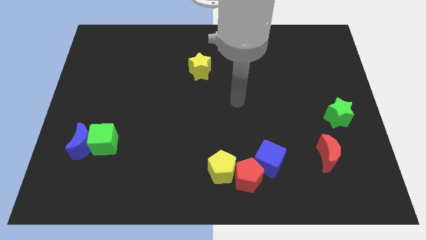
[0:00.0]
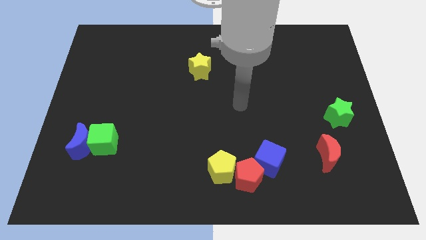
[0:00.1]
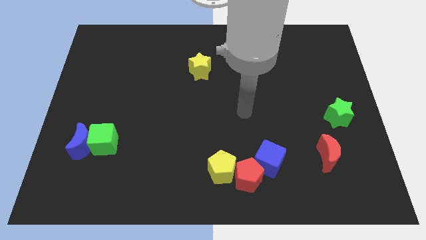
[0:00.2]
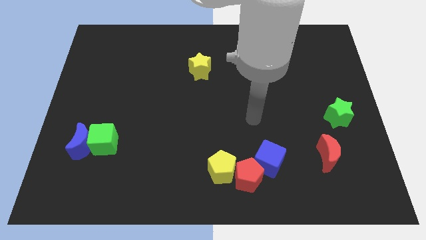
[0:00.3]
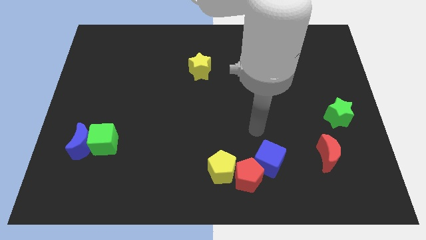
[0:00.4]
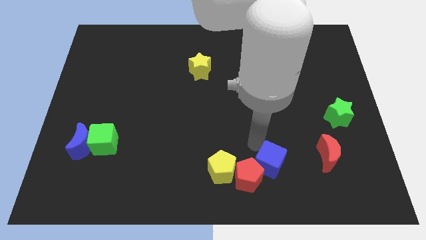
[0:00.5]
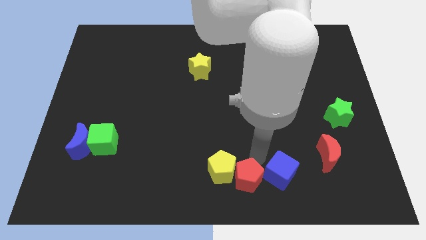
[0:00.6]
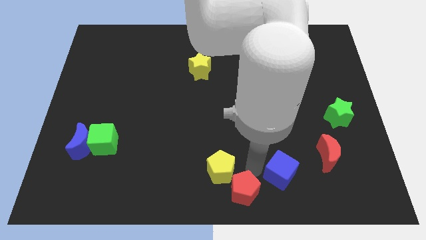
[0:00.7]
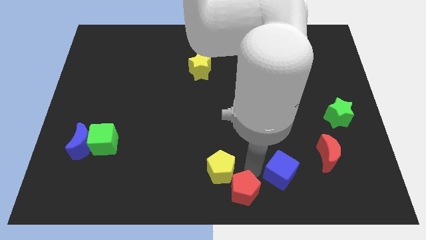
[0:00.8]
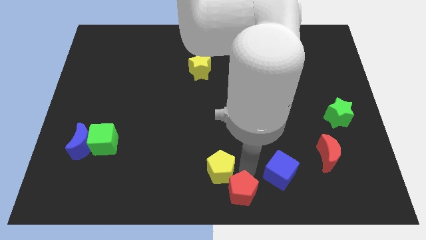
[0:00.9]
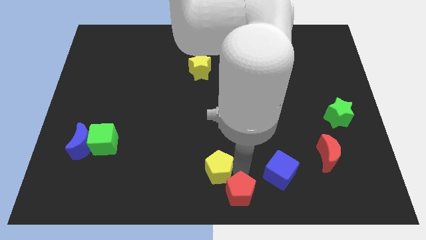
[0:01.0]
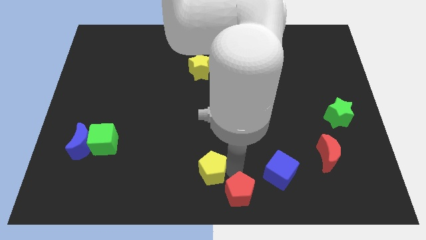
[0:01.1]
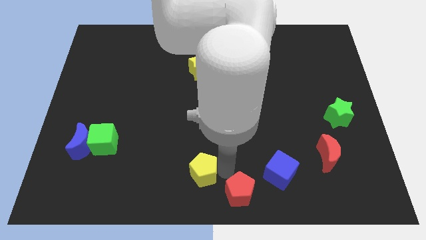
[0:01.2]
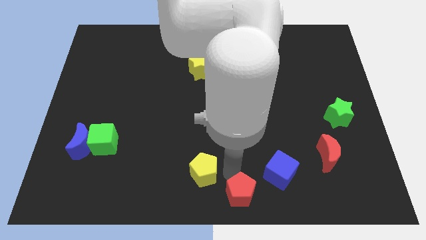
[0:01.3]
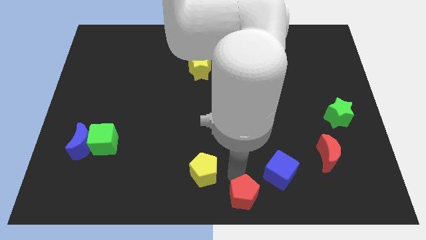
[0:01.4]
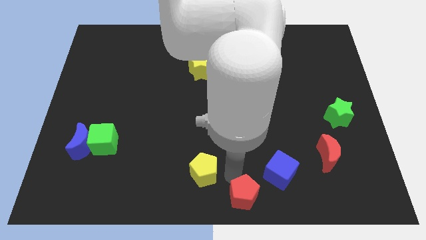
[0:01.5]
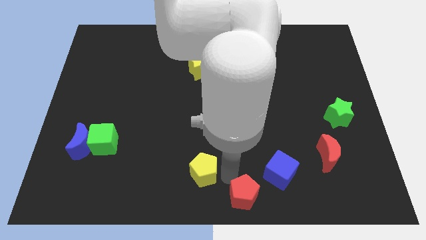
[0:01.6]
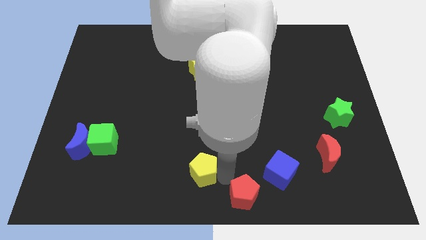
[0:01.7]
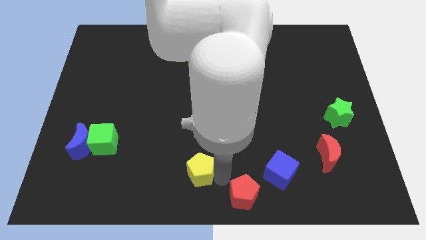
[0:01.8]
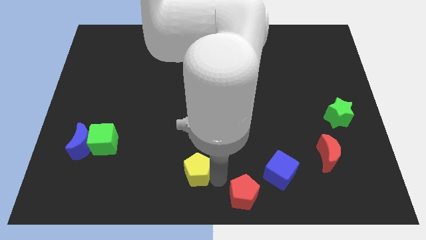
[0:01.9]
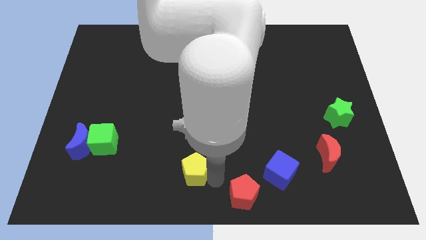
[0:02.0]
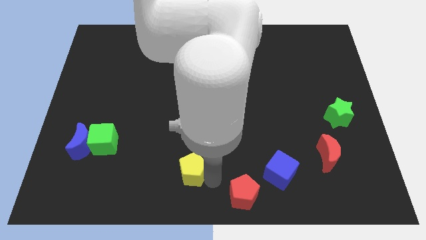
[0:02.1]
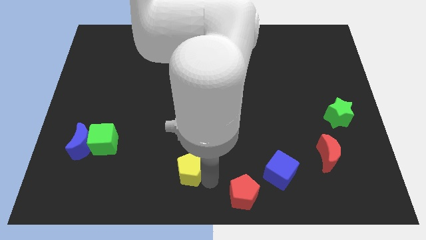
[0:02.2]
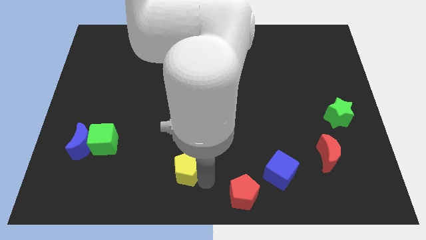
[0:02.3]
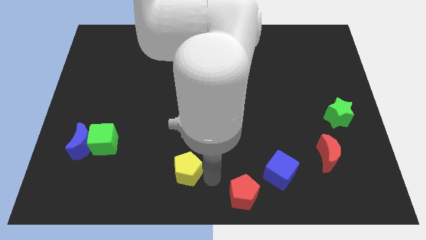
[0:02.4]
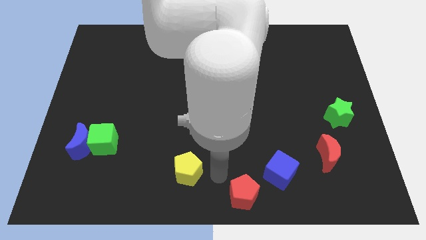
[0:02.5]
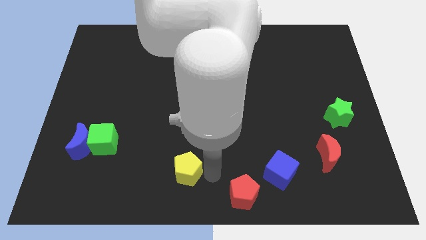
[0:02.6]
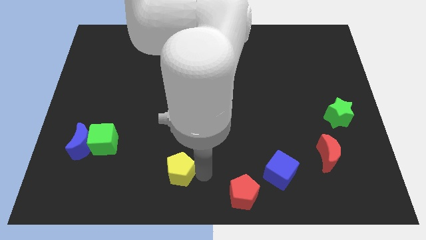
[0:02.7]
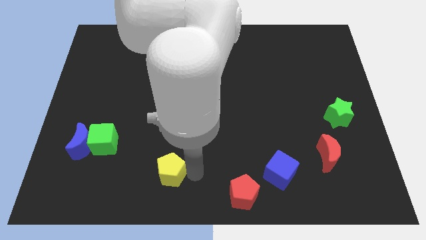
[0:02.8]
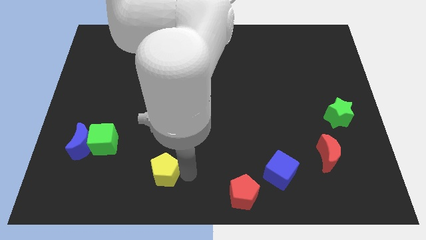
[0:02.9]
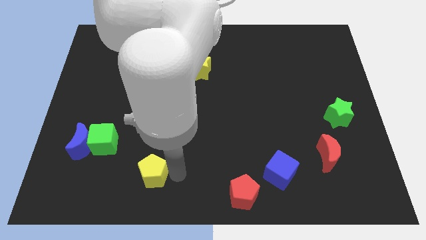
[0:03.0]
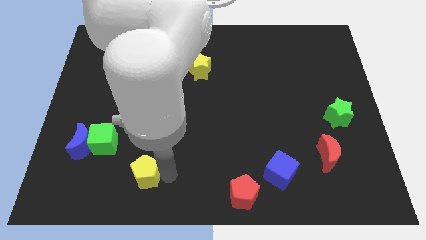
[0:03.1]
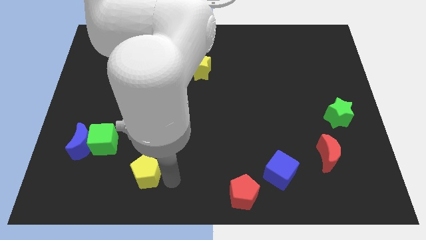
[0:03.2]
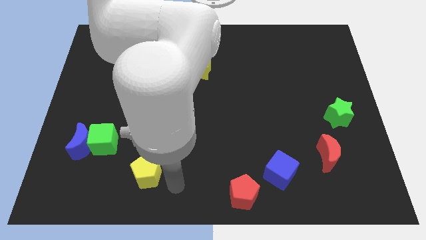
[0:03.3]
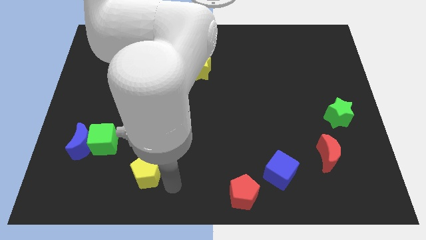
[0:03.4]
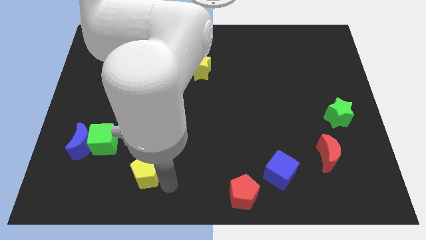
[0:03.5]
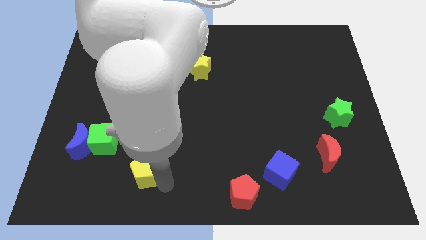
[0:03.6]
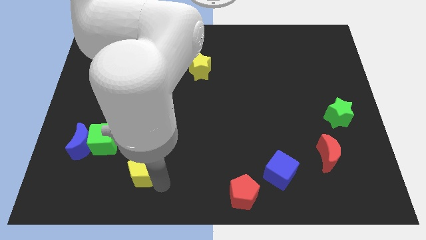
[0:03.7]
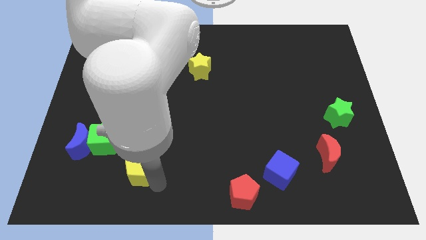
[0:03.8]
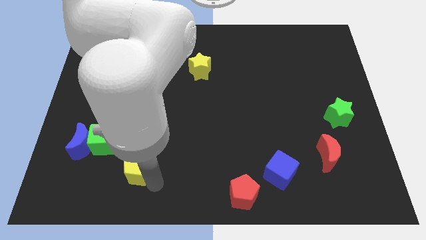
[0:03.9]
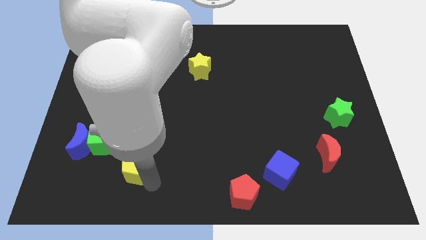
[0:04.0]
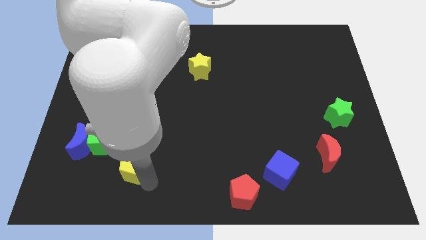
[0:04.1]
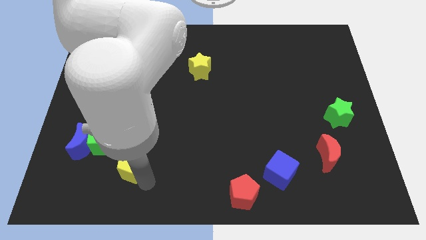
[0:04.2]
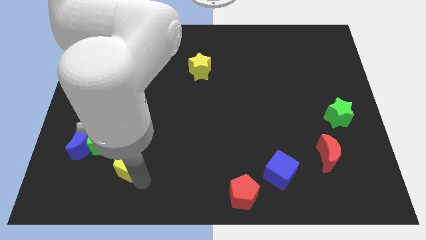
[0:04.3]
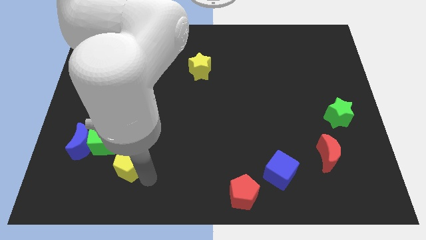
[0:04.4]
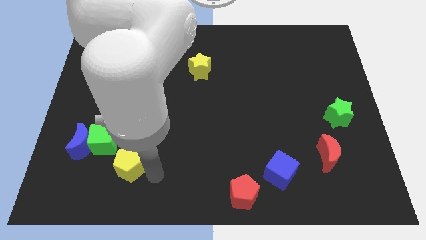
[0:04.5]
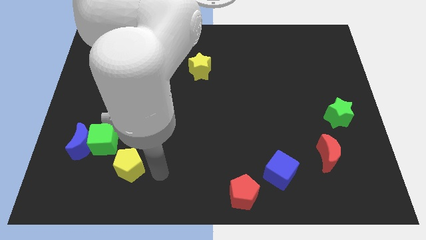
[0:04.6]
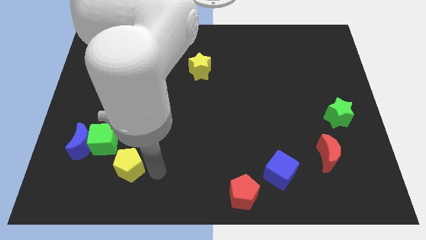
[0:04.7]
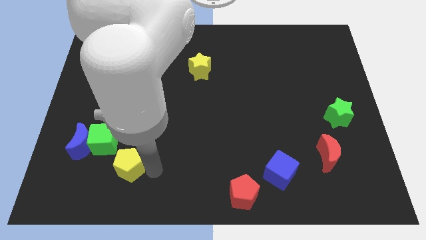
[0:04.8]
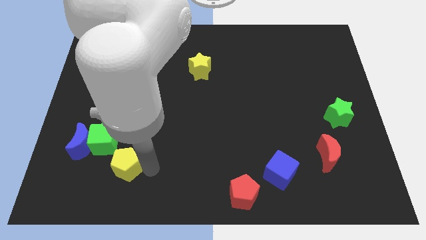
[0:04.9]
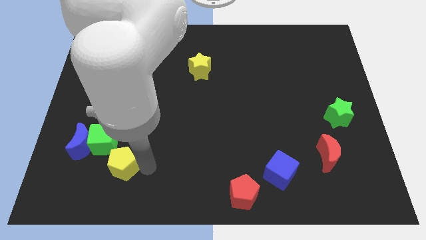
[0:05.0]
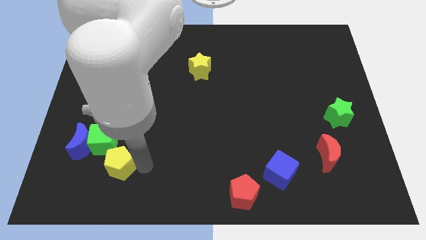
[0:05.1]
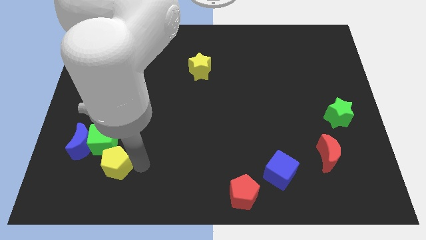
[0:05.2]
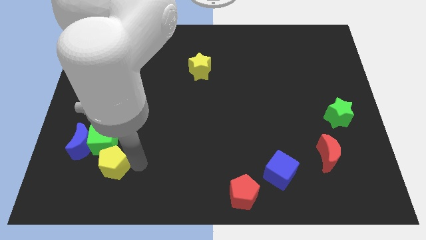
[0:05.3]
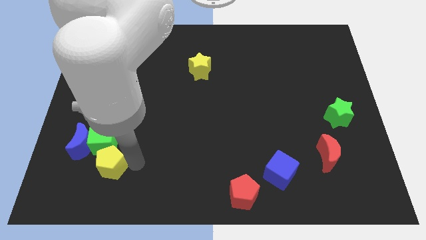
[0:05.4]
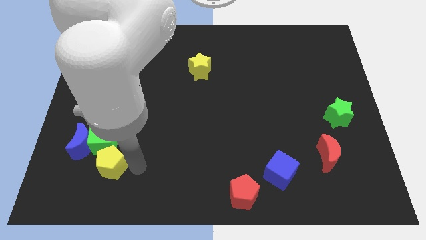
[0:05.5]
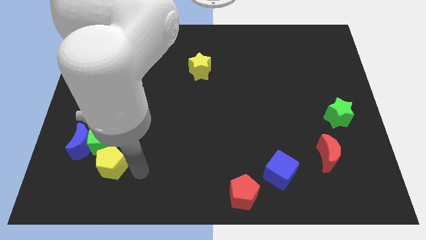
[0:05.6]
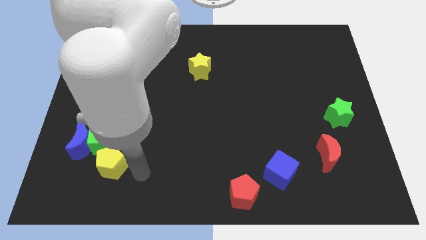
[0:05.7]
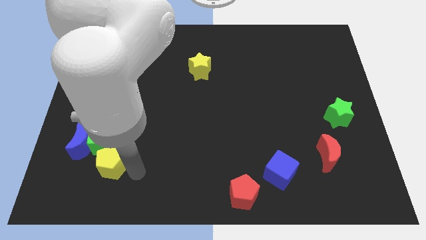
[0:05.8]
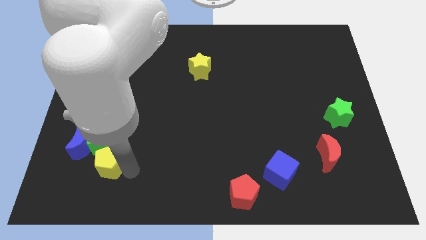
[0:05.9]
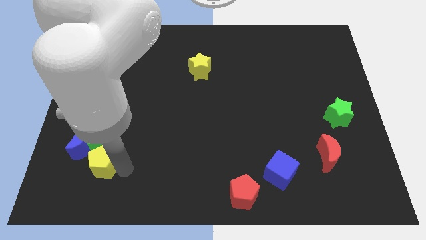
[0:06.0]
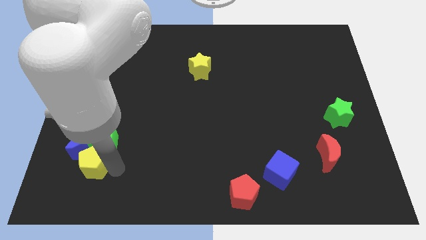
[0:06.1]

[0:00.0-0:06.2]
push the yellow pentagon next to the blue moon

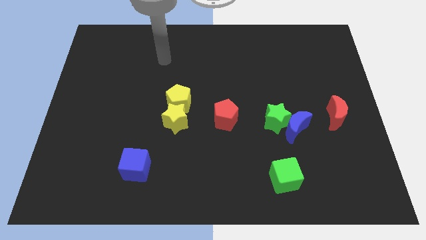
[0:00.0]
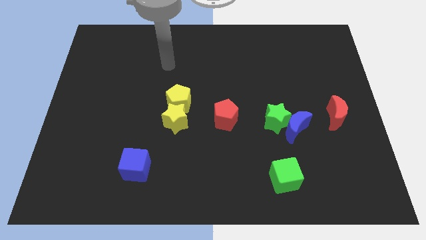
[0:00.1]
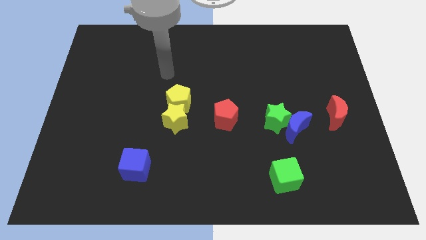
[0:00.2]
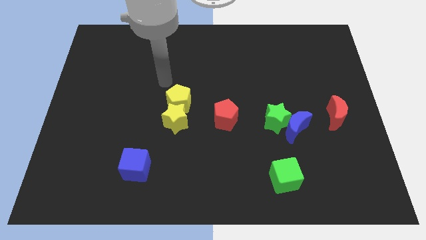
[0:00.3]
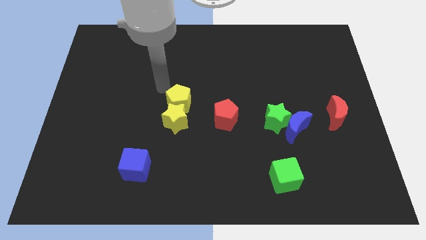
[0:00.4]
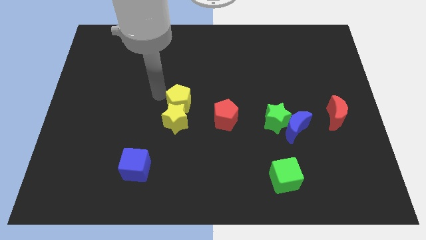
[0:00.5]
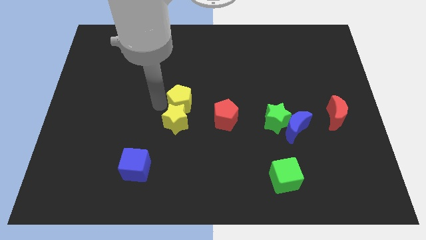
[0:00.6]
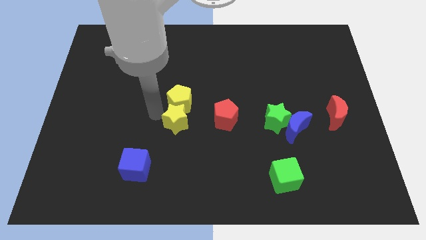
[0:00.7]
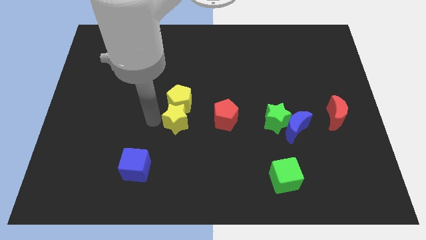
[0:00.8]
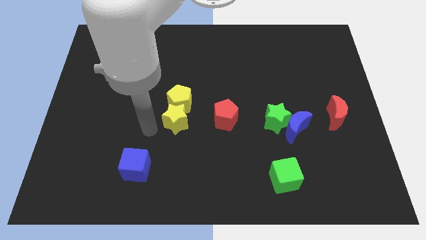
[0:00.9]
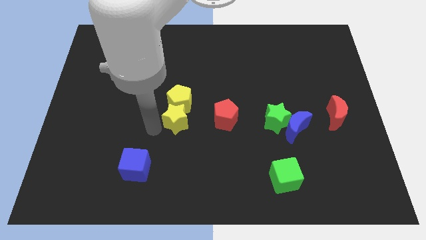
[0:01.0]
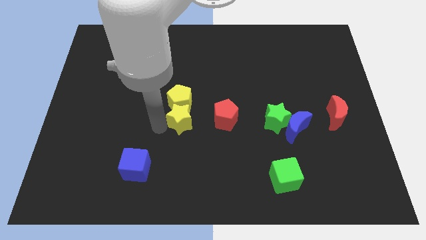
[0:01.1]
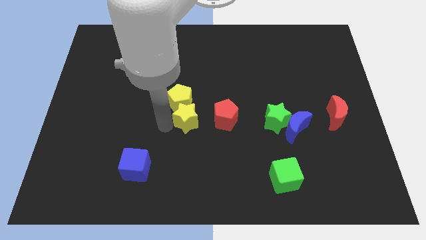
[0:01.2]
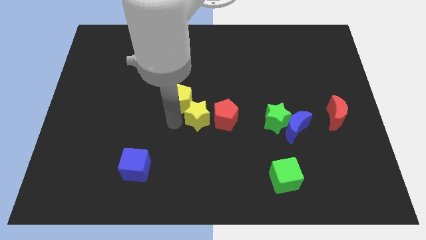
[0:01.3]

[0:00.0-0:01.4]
put the yellow star to the red pentagon

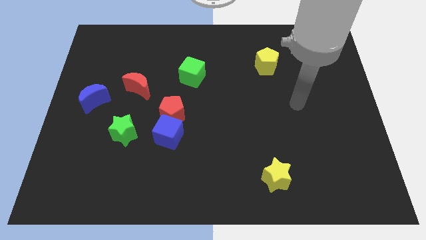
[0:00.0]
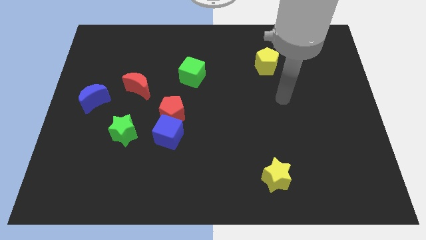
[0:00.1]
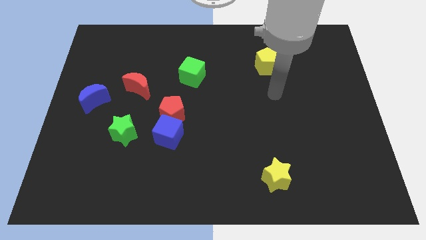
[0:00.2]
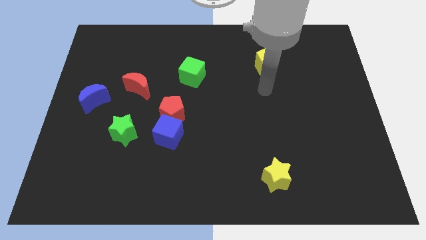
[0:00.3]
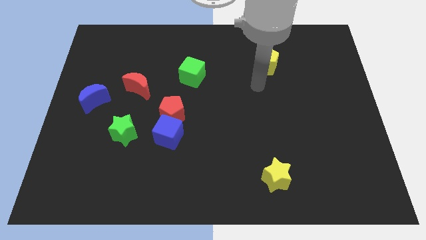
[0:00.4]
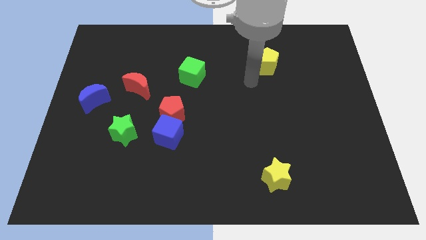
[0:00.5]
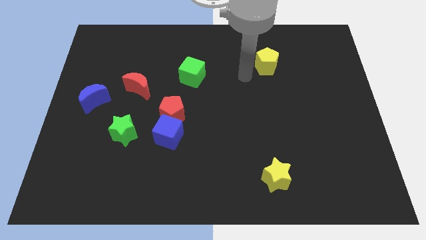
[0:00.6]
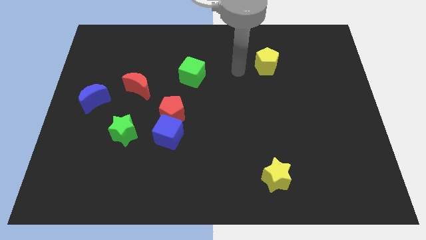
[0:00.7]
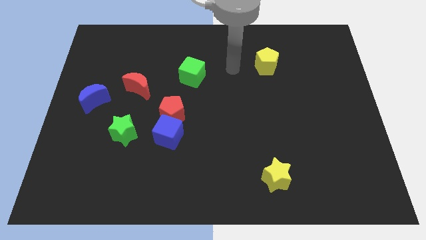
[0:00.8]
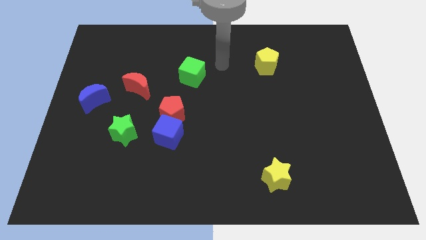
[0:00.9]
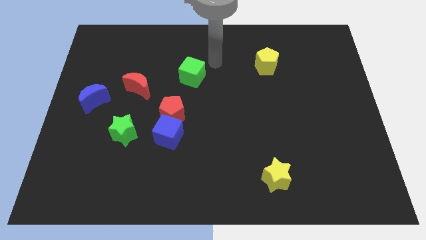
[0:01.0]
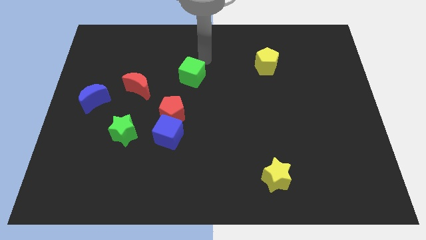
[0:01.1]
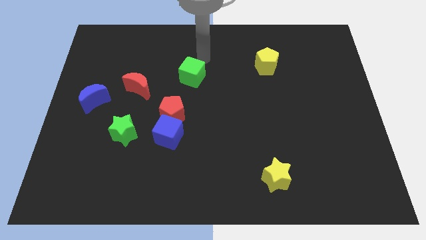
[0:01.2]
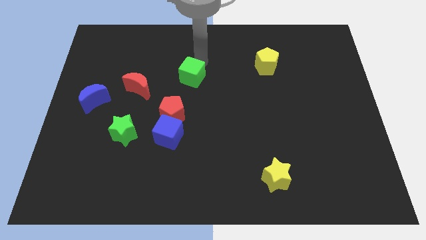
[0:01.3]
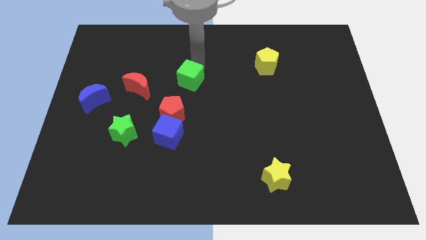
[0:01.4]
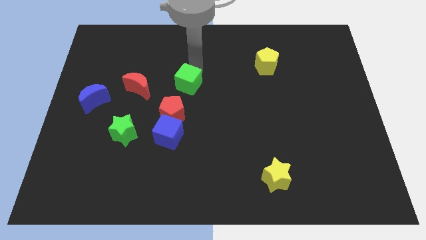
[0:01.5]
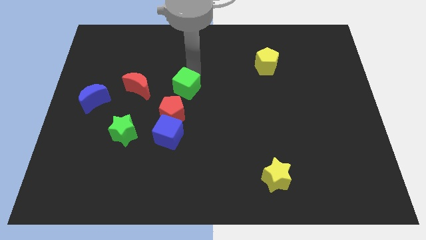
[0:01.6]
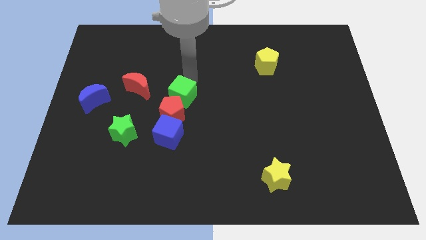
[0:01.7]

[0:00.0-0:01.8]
put the green cube towards the red pentagon
